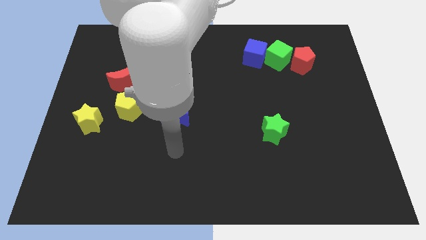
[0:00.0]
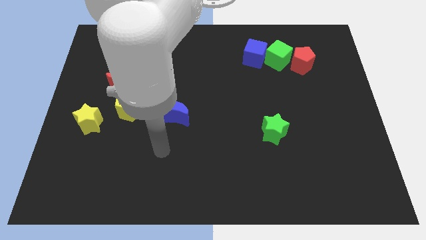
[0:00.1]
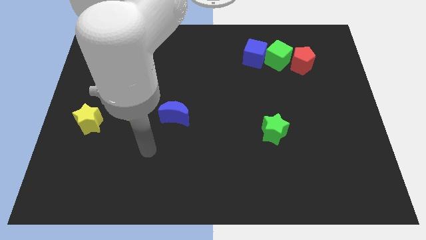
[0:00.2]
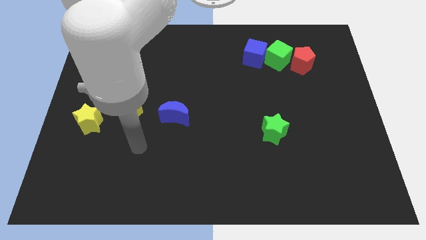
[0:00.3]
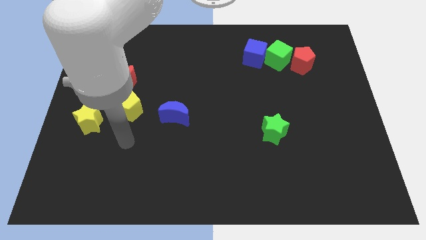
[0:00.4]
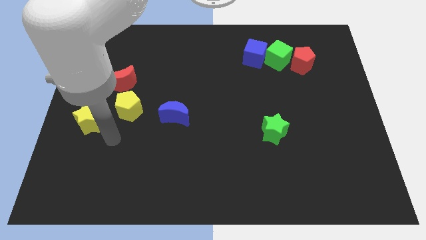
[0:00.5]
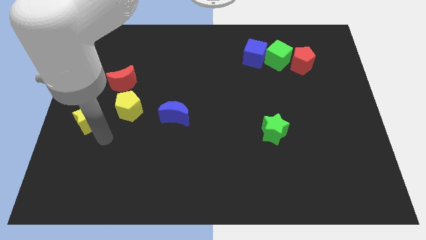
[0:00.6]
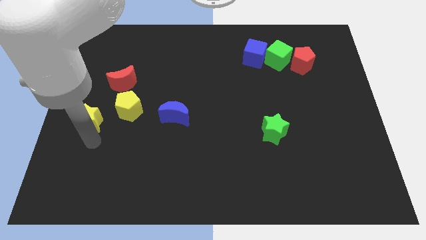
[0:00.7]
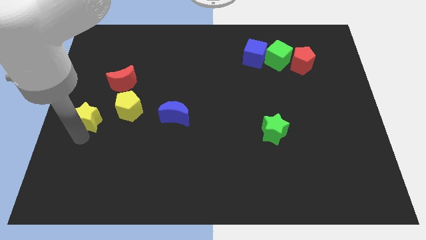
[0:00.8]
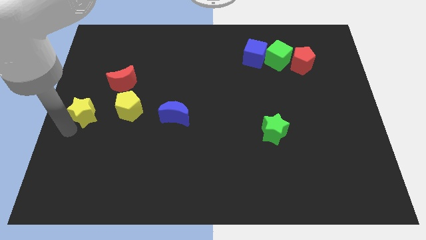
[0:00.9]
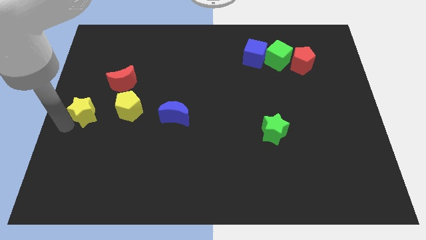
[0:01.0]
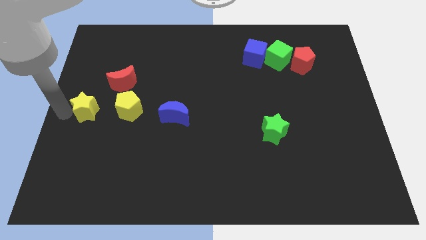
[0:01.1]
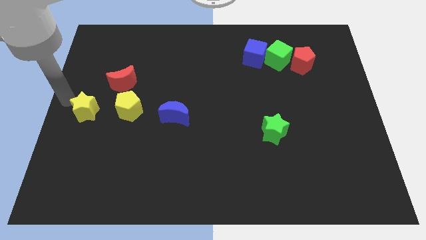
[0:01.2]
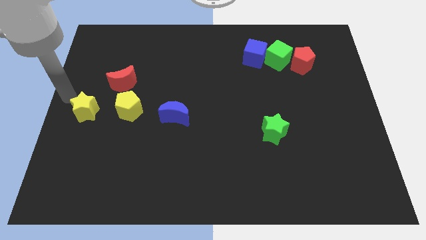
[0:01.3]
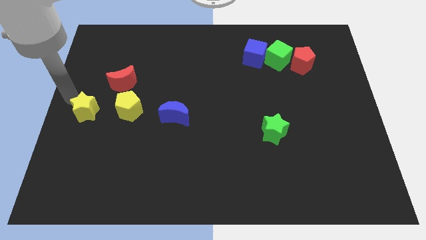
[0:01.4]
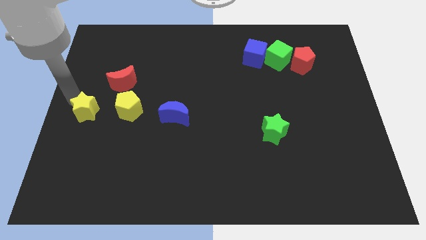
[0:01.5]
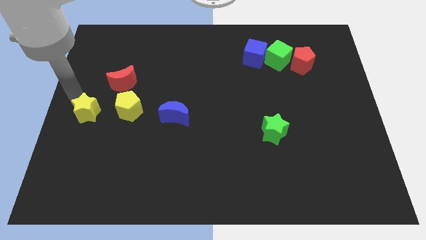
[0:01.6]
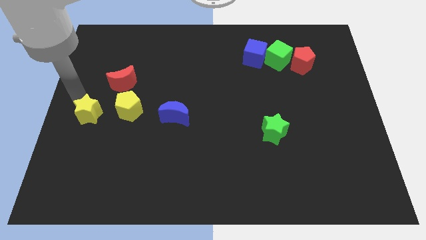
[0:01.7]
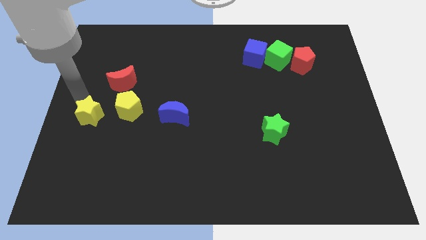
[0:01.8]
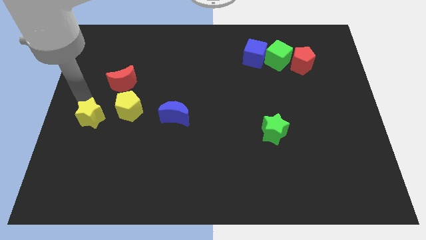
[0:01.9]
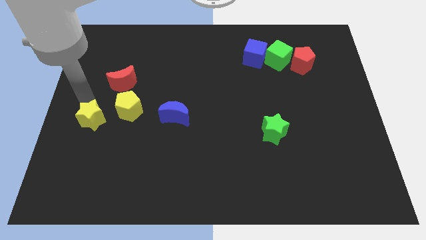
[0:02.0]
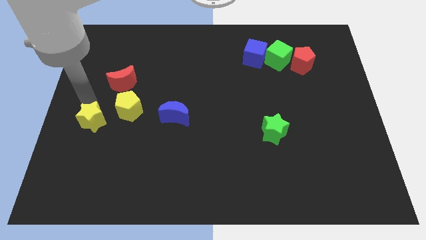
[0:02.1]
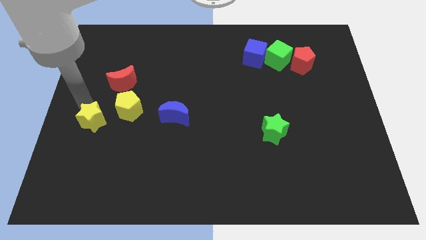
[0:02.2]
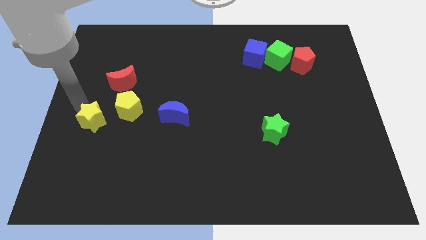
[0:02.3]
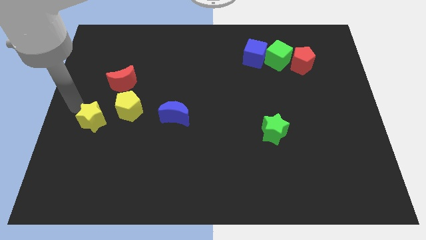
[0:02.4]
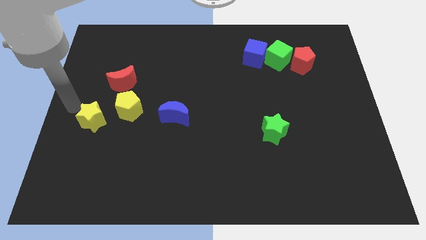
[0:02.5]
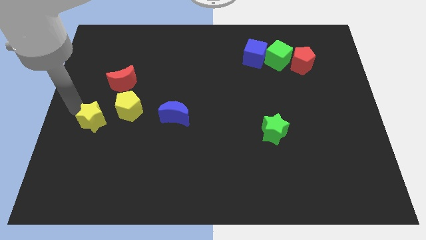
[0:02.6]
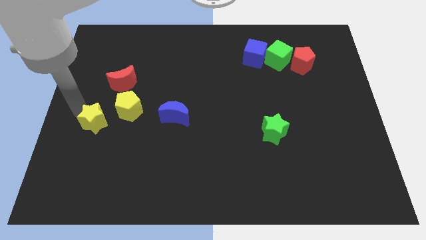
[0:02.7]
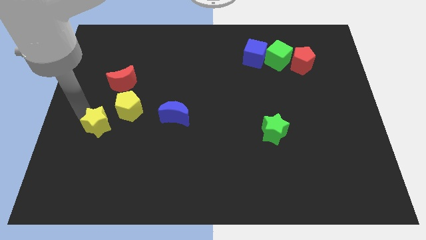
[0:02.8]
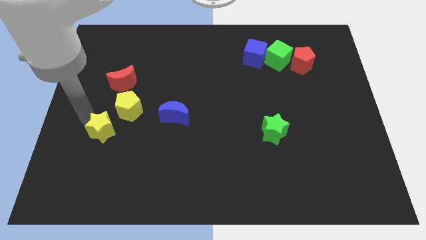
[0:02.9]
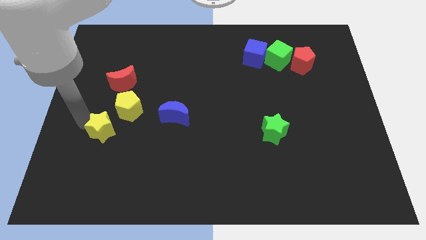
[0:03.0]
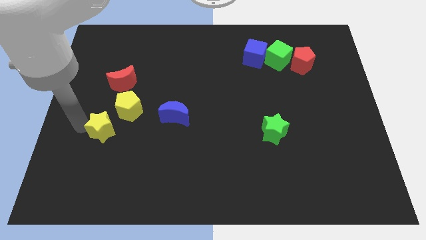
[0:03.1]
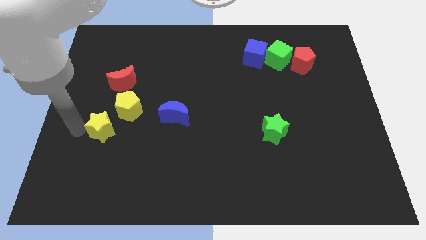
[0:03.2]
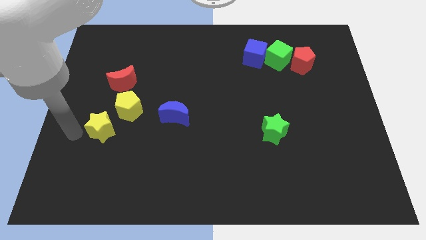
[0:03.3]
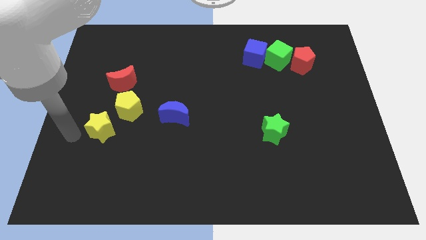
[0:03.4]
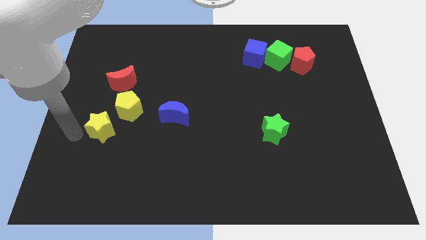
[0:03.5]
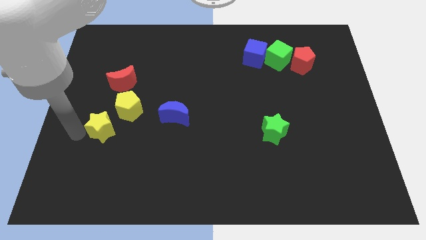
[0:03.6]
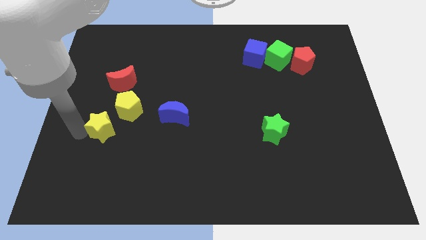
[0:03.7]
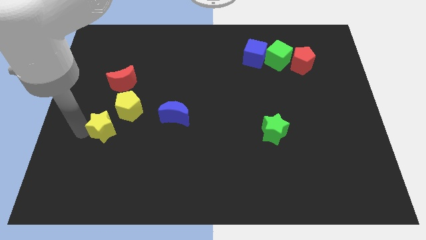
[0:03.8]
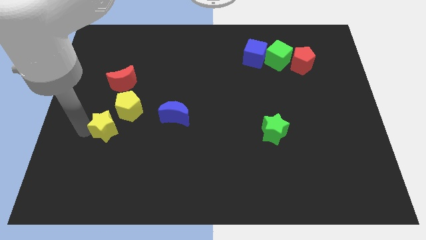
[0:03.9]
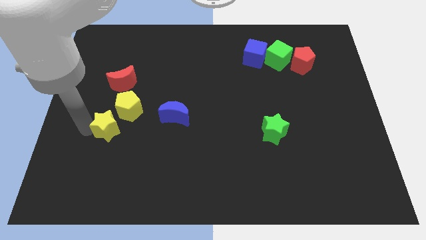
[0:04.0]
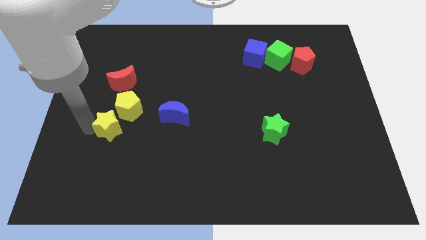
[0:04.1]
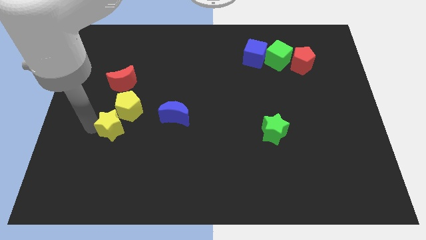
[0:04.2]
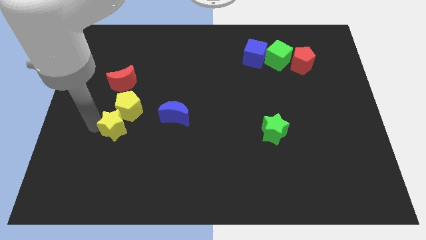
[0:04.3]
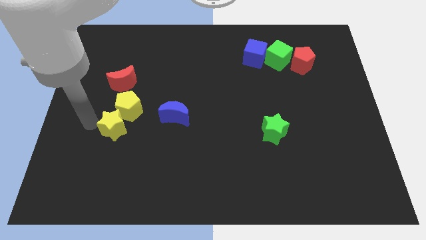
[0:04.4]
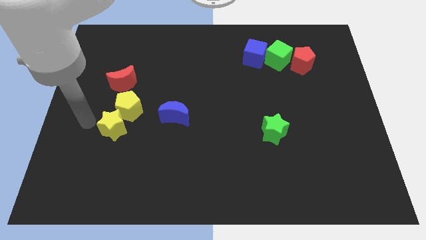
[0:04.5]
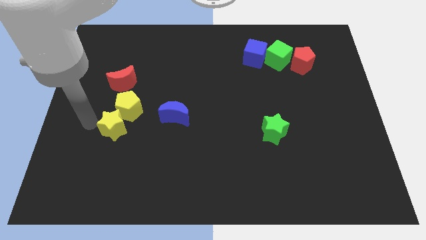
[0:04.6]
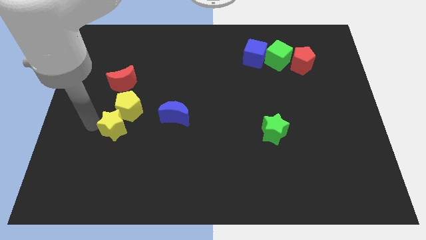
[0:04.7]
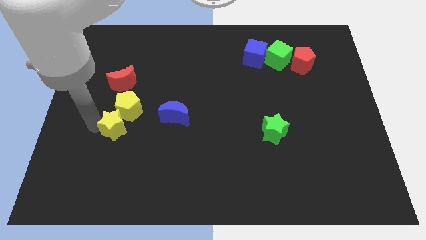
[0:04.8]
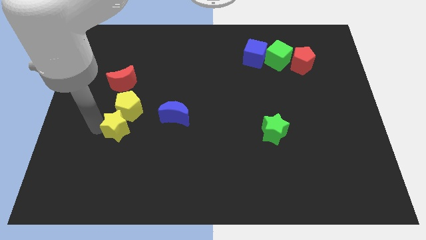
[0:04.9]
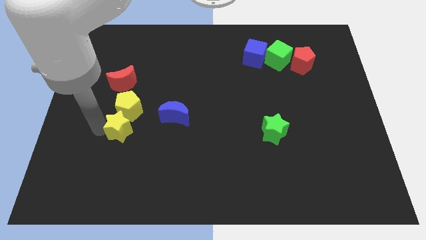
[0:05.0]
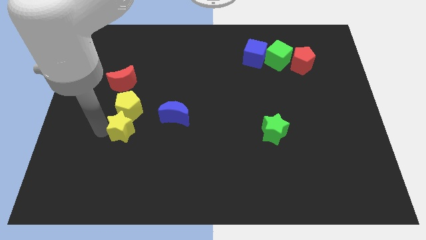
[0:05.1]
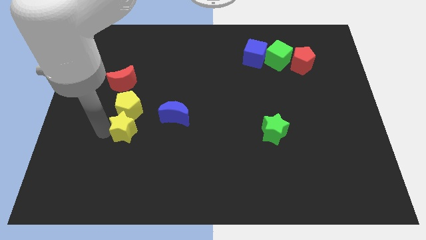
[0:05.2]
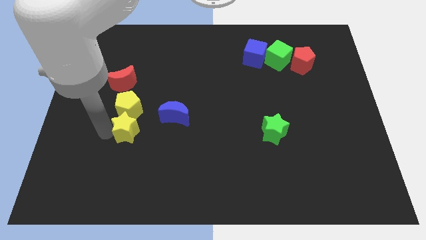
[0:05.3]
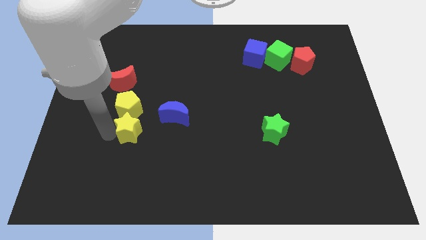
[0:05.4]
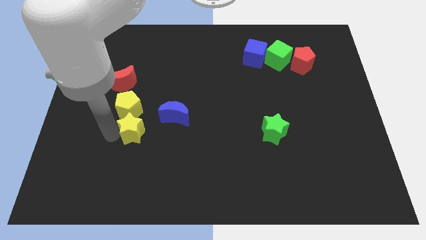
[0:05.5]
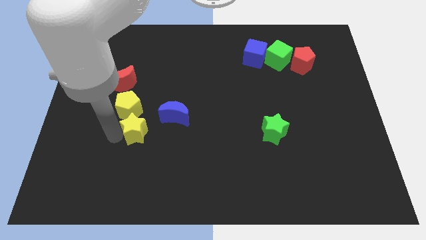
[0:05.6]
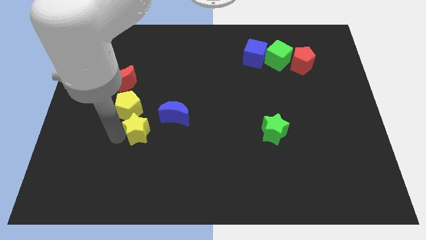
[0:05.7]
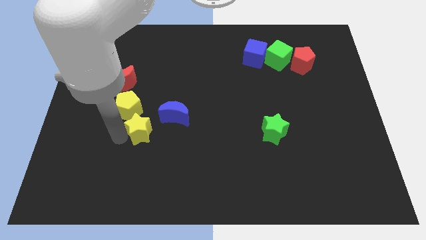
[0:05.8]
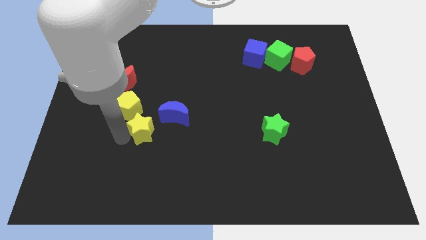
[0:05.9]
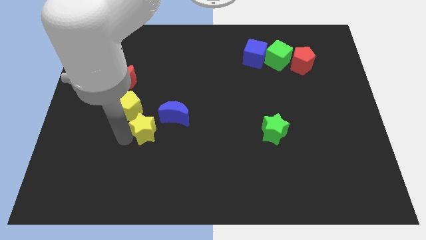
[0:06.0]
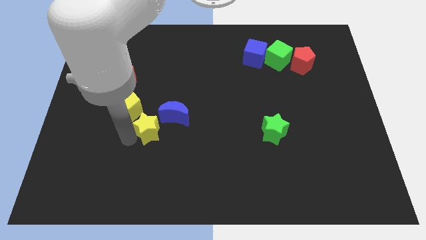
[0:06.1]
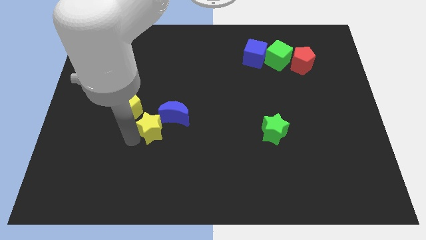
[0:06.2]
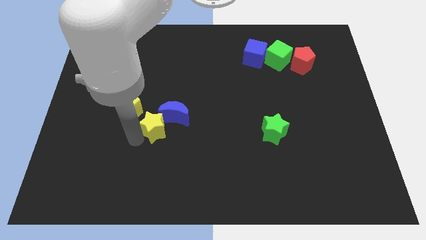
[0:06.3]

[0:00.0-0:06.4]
put the yellow star next to the blue moon

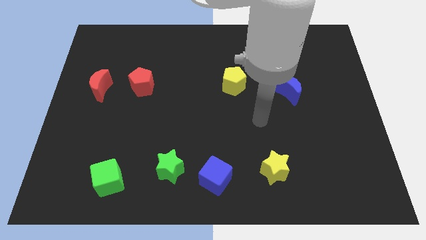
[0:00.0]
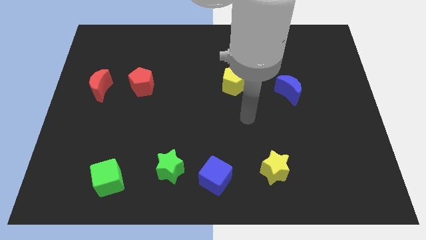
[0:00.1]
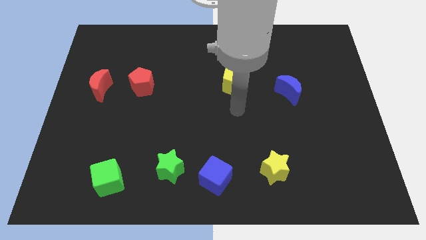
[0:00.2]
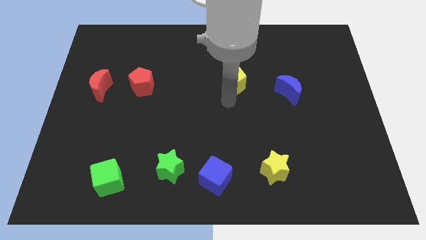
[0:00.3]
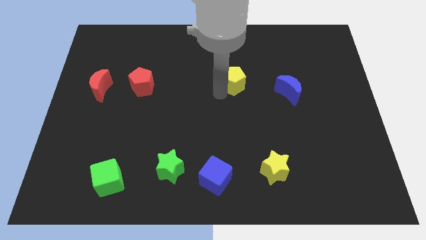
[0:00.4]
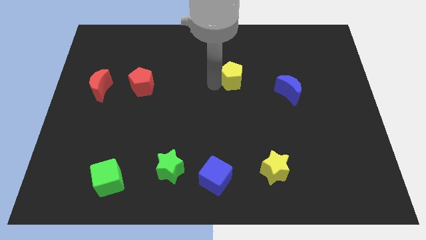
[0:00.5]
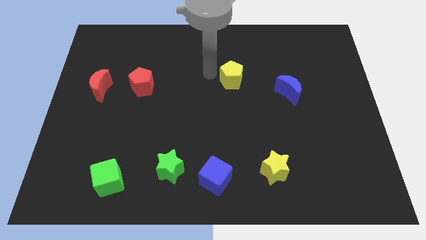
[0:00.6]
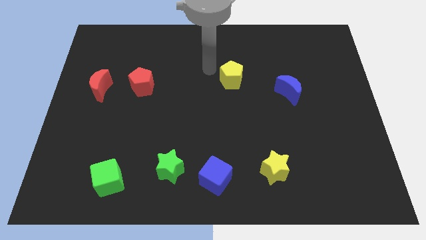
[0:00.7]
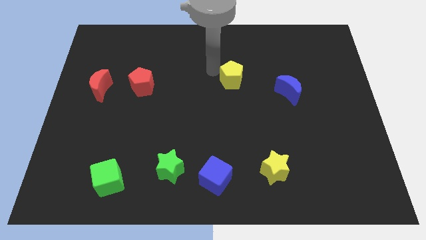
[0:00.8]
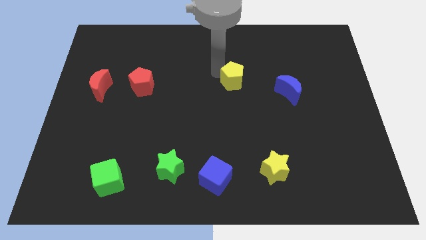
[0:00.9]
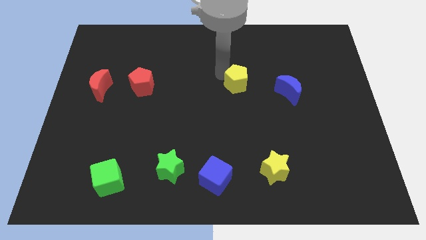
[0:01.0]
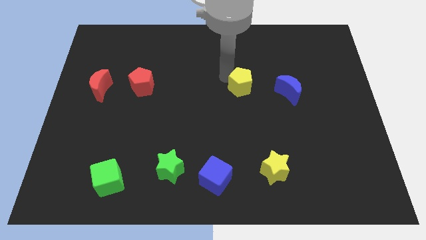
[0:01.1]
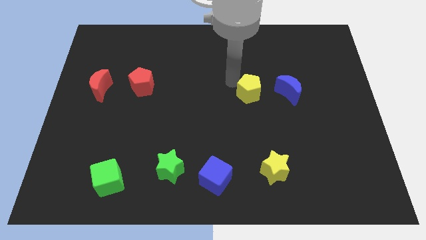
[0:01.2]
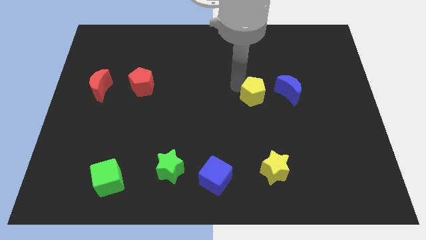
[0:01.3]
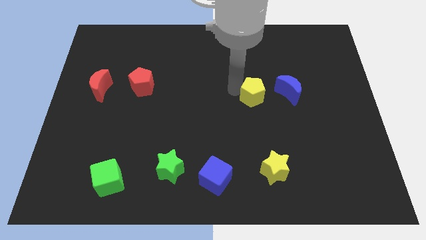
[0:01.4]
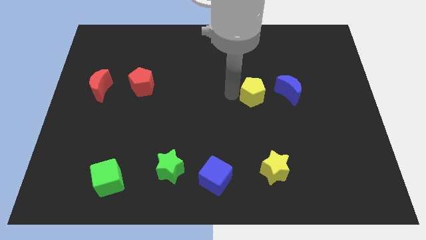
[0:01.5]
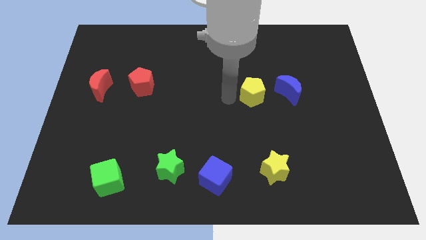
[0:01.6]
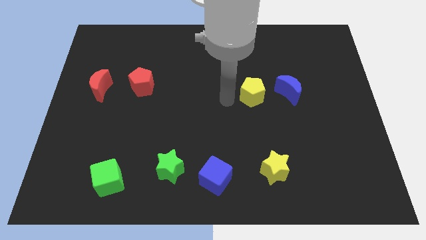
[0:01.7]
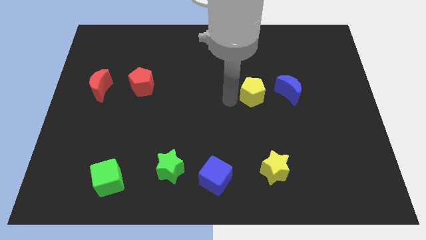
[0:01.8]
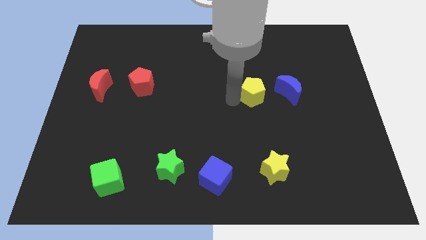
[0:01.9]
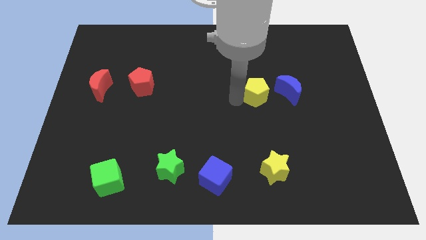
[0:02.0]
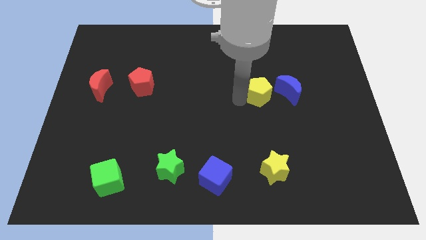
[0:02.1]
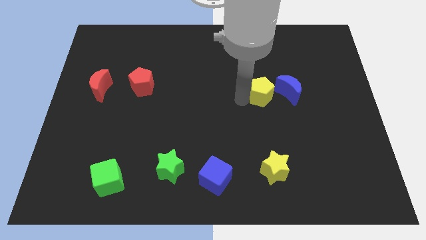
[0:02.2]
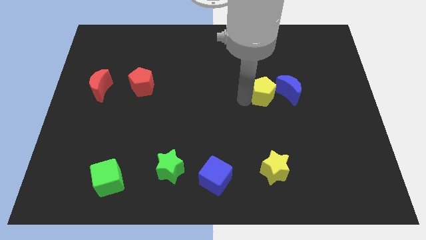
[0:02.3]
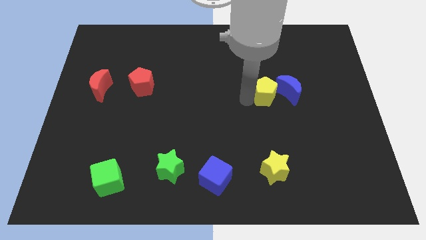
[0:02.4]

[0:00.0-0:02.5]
push the yellow pentagon to the blue moon
